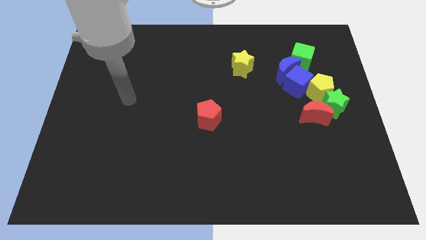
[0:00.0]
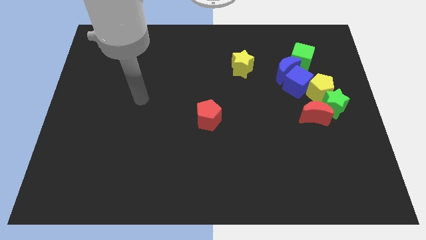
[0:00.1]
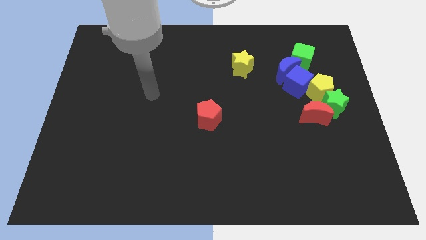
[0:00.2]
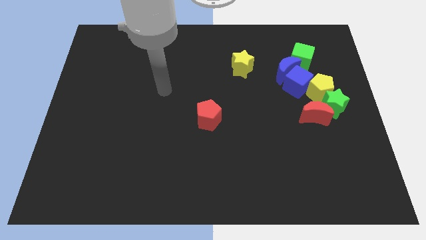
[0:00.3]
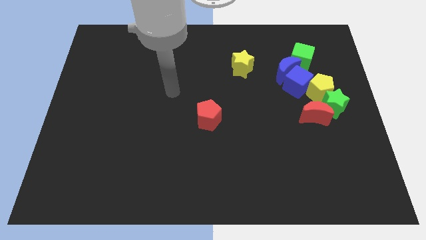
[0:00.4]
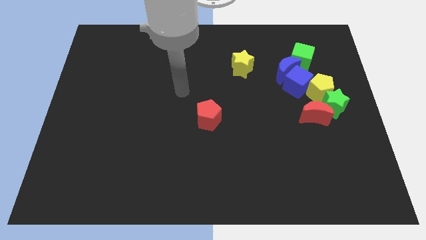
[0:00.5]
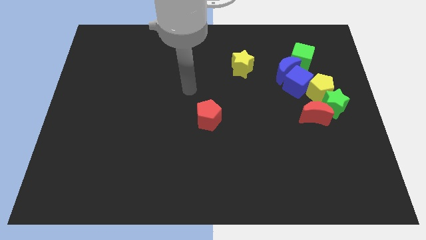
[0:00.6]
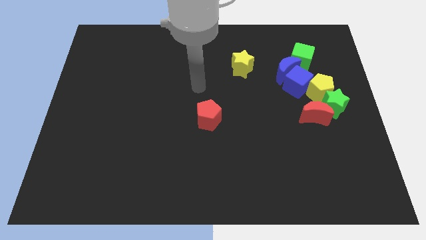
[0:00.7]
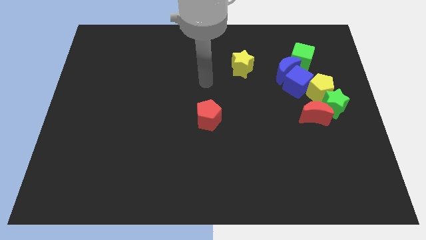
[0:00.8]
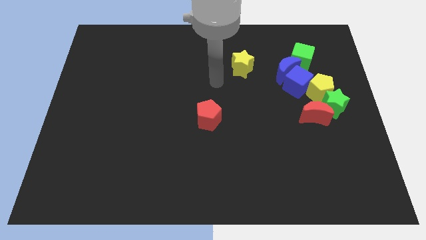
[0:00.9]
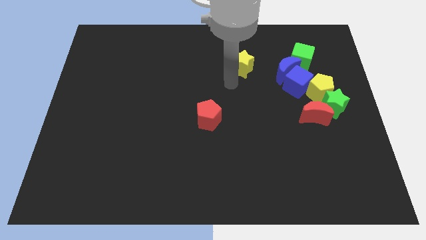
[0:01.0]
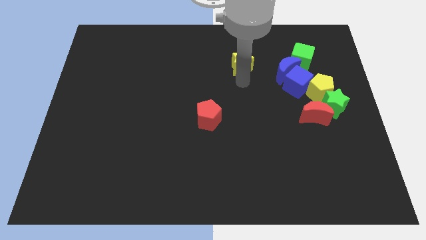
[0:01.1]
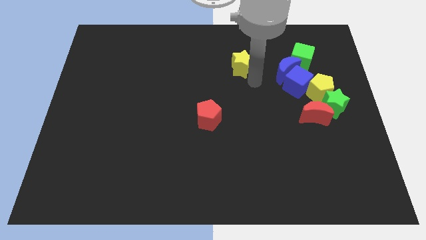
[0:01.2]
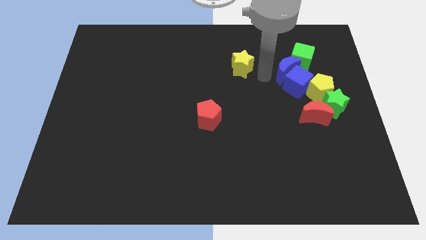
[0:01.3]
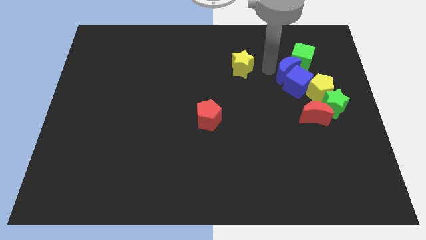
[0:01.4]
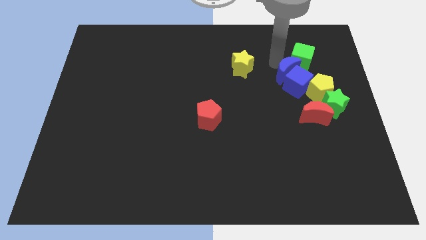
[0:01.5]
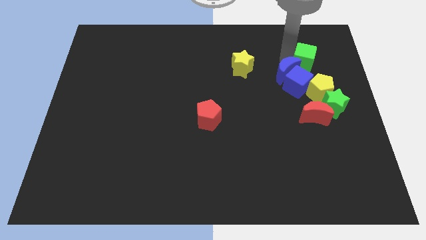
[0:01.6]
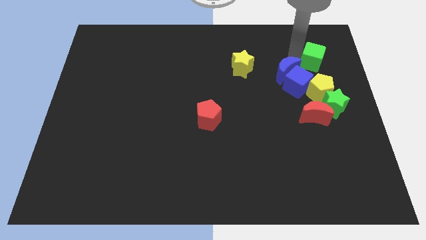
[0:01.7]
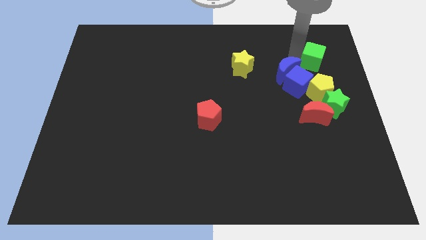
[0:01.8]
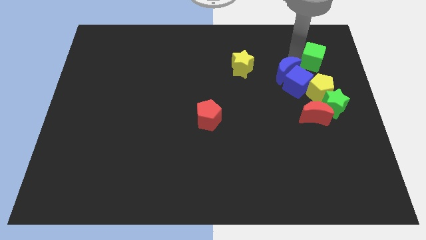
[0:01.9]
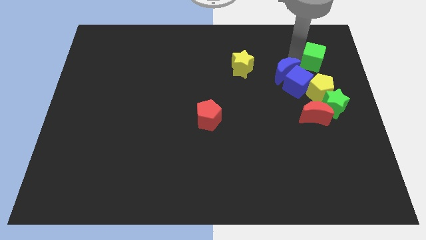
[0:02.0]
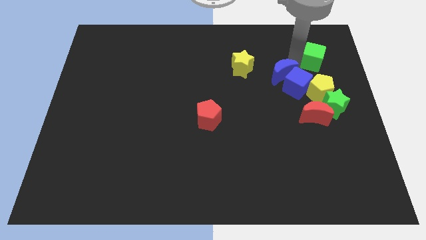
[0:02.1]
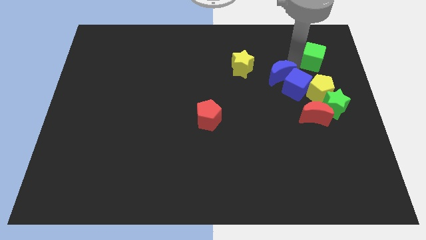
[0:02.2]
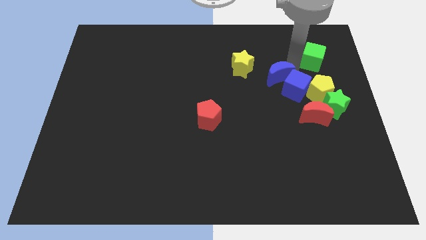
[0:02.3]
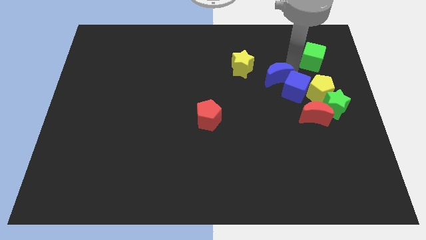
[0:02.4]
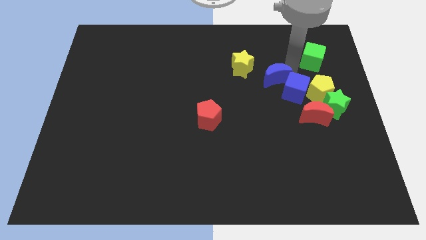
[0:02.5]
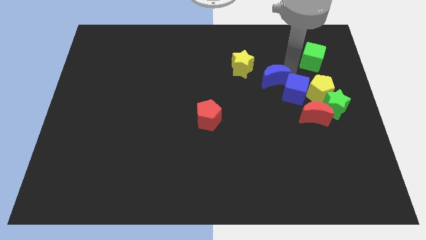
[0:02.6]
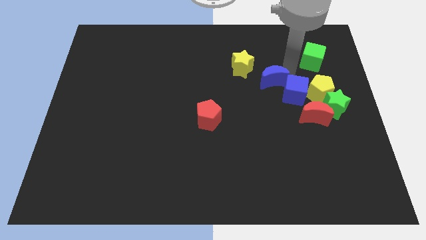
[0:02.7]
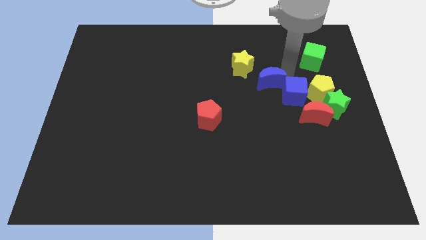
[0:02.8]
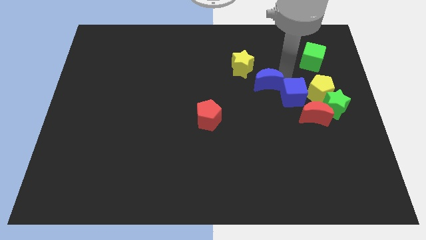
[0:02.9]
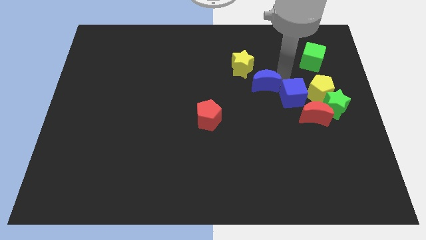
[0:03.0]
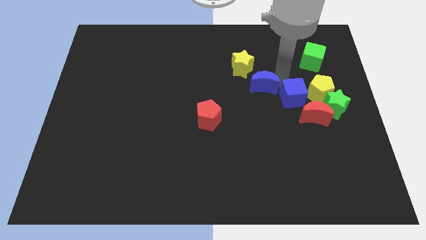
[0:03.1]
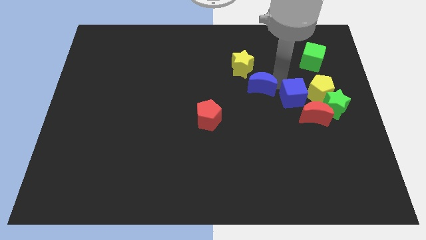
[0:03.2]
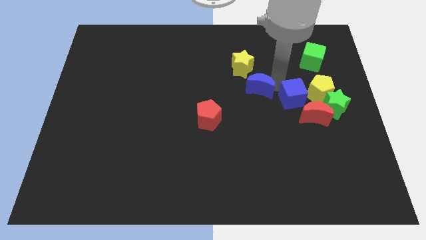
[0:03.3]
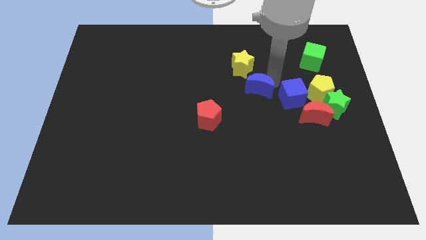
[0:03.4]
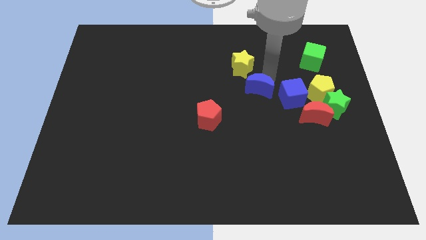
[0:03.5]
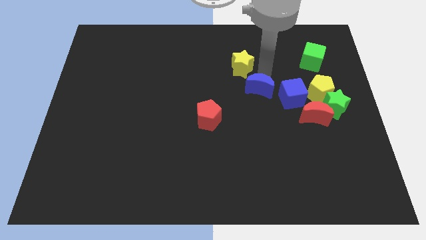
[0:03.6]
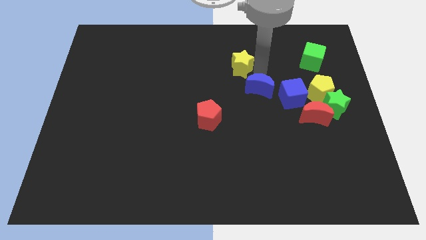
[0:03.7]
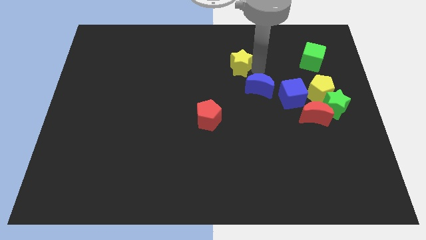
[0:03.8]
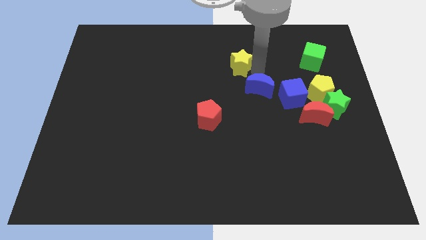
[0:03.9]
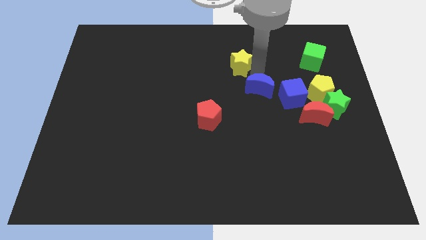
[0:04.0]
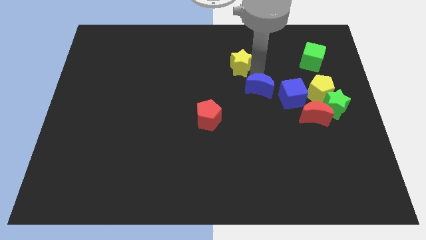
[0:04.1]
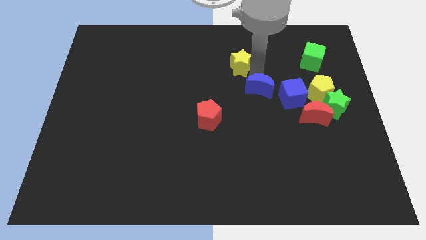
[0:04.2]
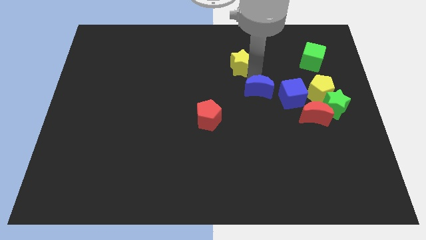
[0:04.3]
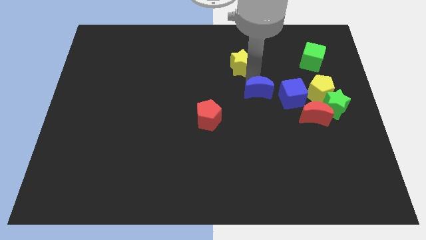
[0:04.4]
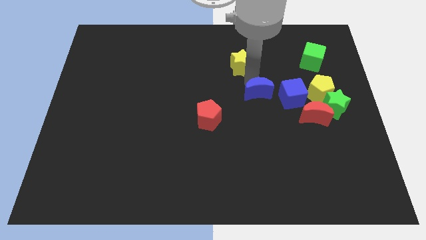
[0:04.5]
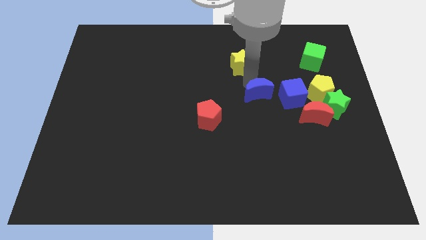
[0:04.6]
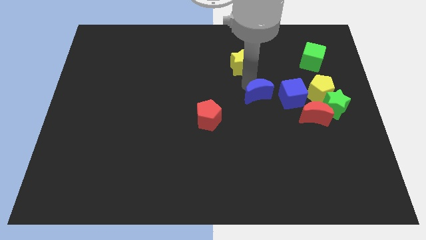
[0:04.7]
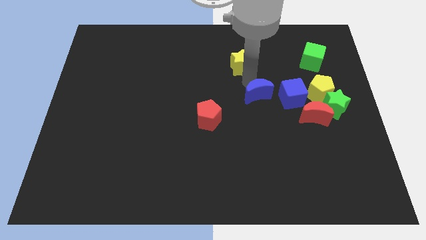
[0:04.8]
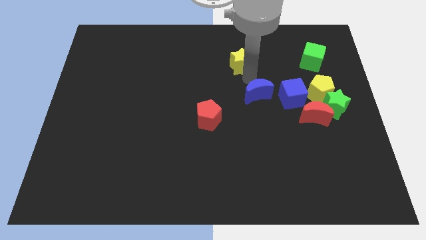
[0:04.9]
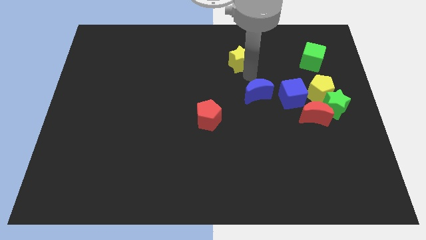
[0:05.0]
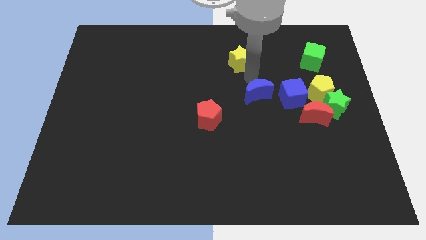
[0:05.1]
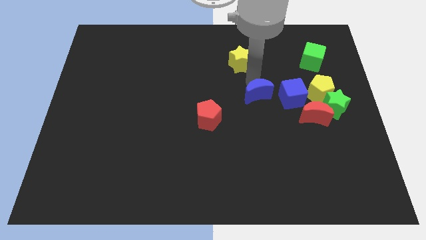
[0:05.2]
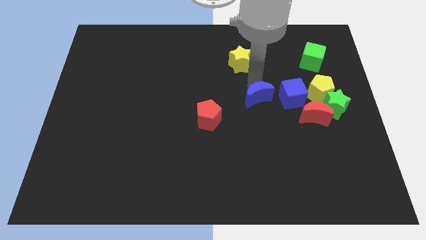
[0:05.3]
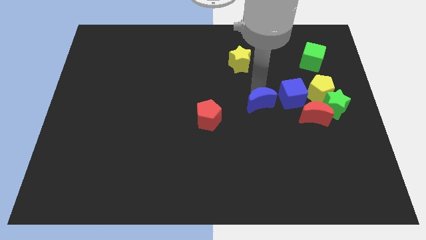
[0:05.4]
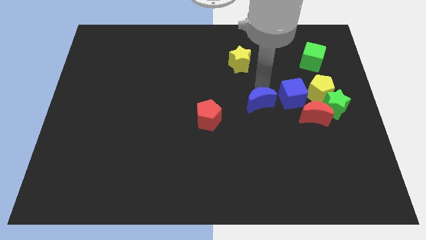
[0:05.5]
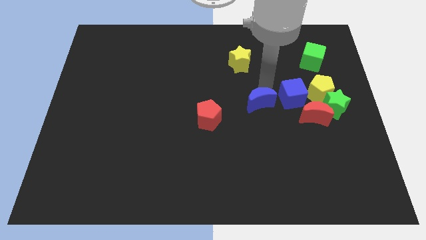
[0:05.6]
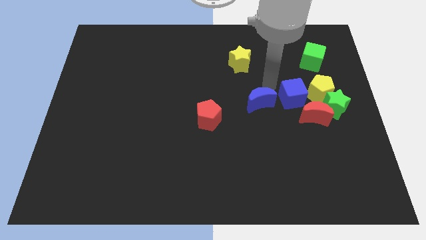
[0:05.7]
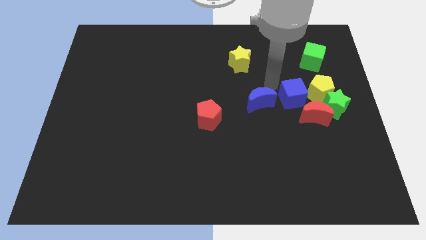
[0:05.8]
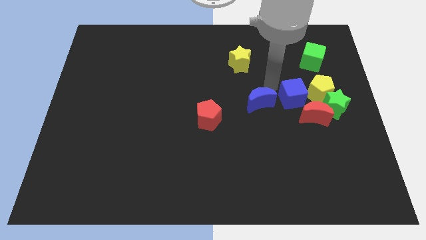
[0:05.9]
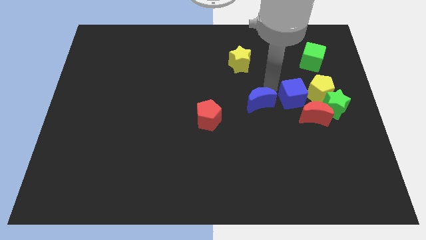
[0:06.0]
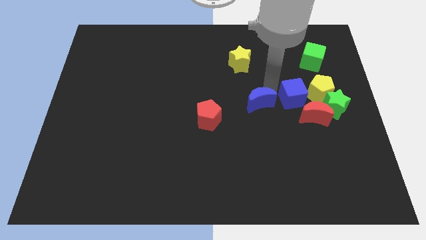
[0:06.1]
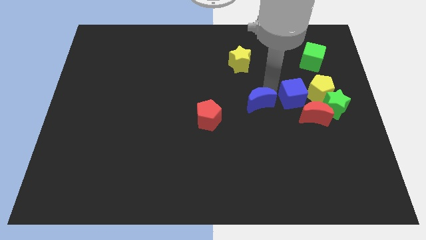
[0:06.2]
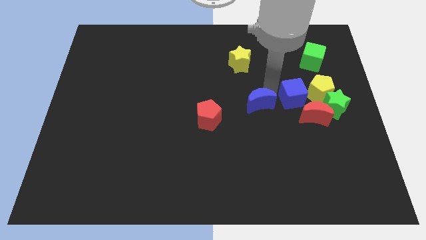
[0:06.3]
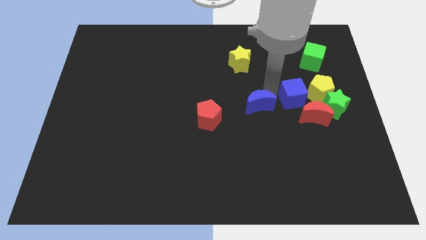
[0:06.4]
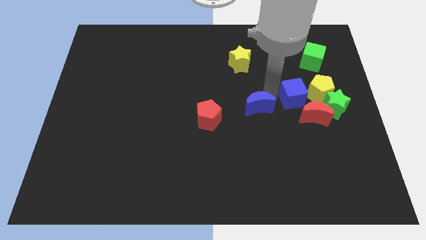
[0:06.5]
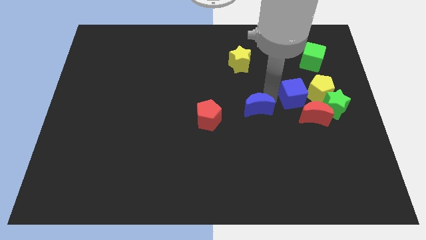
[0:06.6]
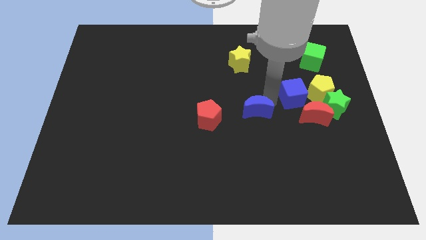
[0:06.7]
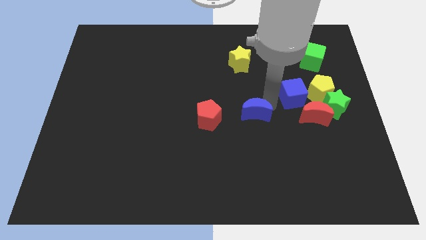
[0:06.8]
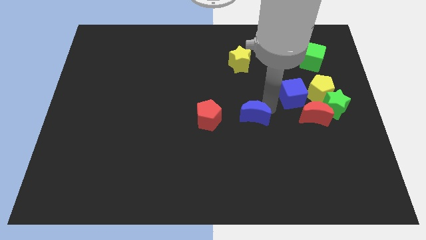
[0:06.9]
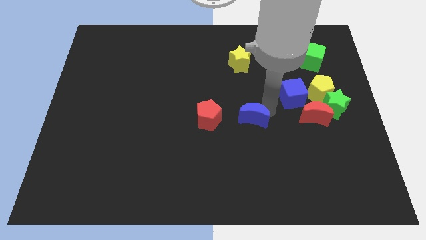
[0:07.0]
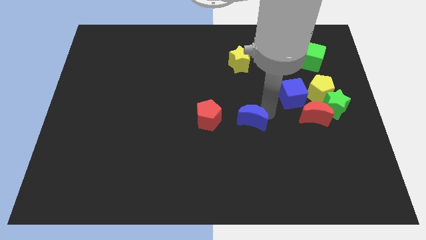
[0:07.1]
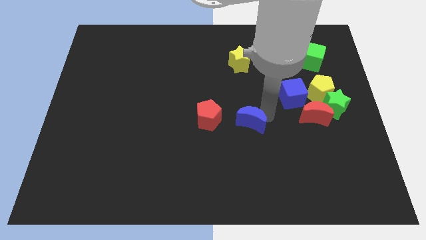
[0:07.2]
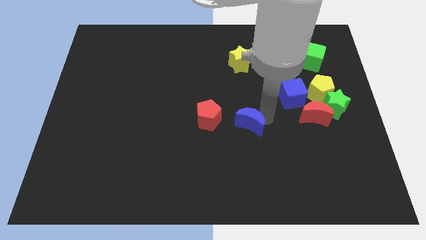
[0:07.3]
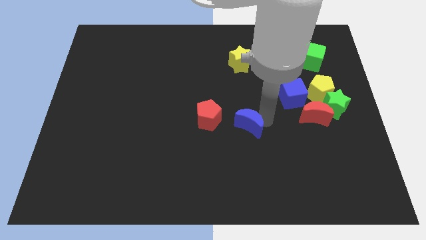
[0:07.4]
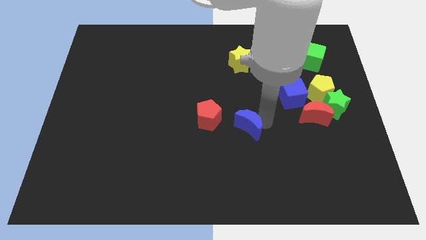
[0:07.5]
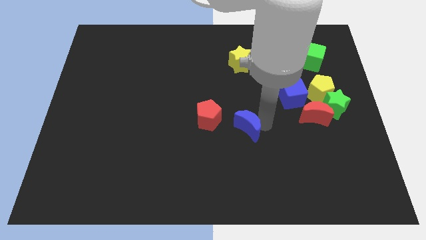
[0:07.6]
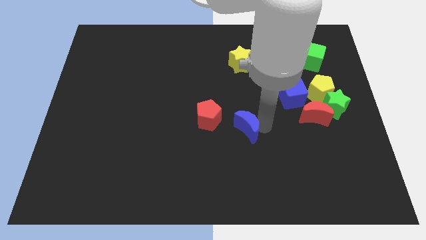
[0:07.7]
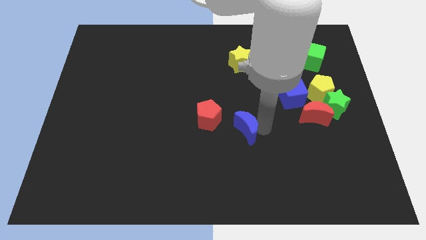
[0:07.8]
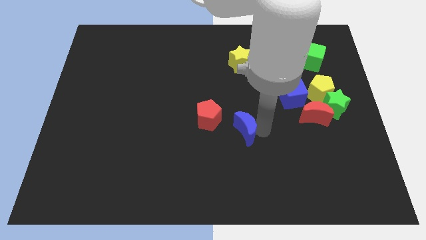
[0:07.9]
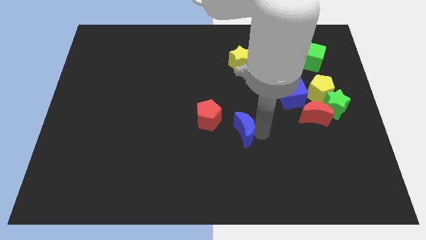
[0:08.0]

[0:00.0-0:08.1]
move the blue moon diagonally down and to the left
